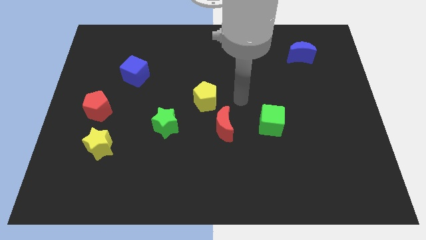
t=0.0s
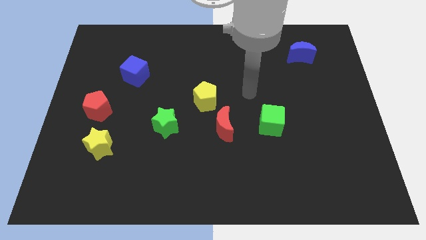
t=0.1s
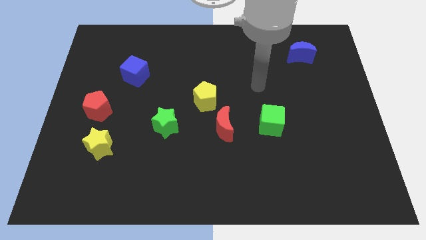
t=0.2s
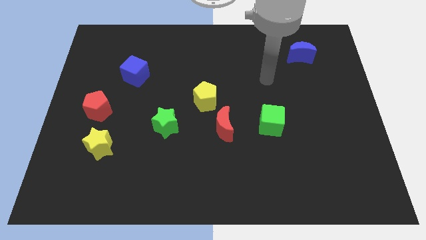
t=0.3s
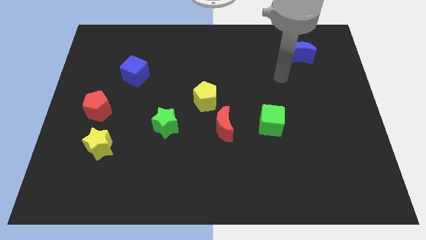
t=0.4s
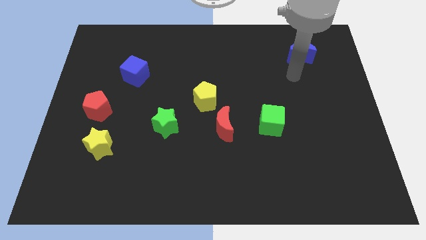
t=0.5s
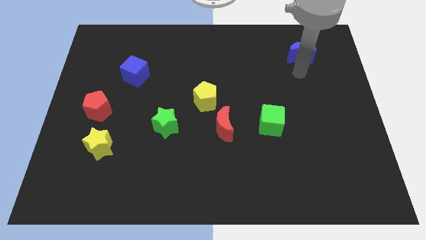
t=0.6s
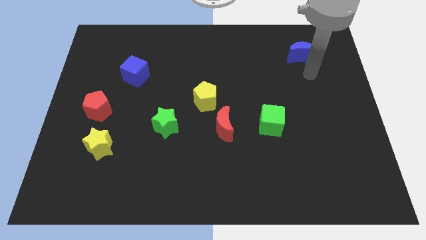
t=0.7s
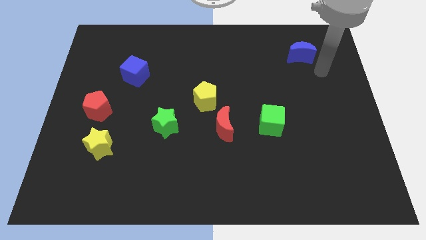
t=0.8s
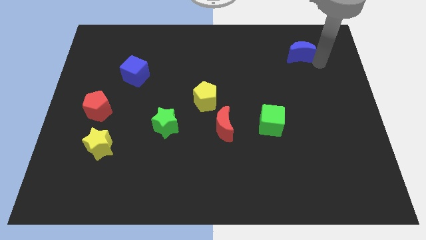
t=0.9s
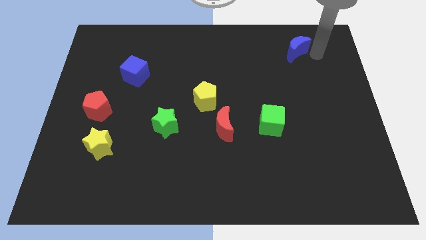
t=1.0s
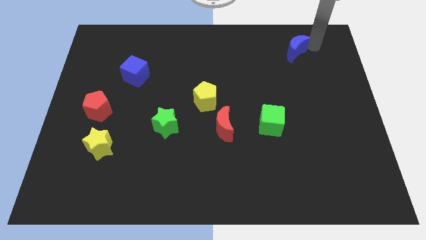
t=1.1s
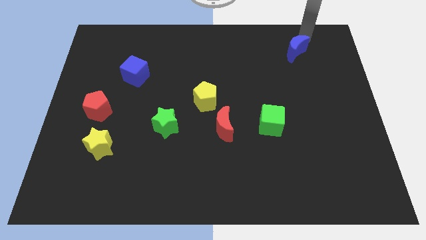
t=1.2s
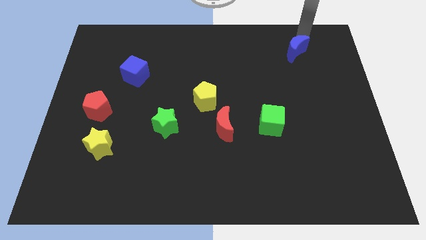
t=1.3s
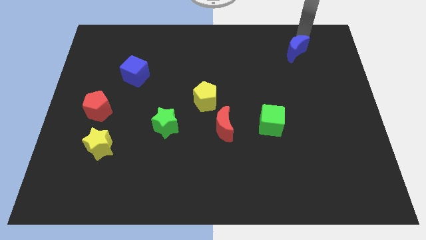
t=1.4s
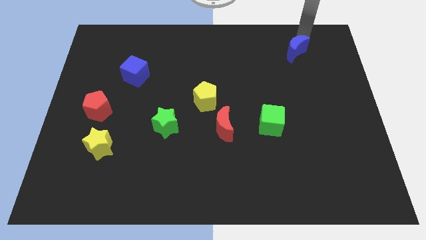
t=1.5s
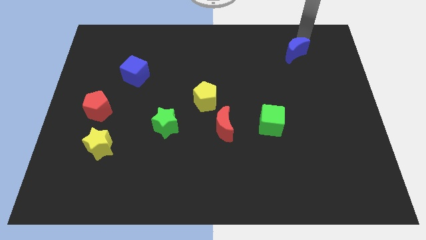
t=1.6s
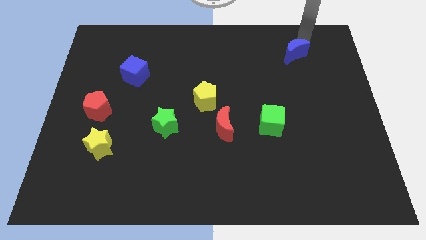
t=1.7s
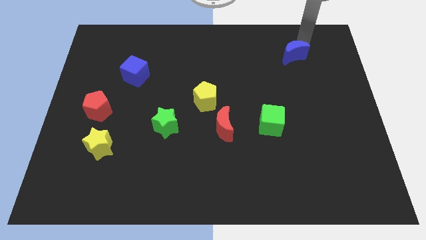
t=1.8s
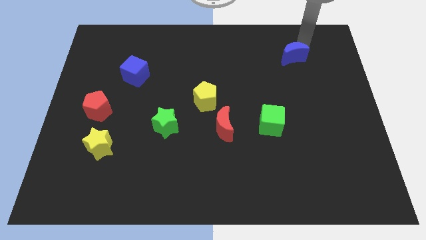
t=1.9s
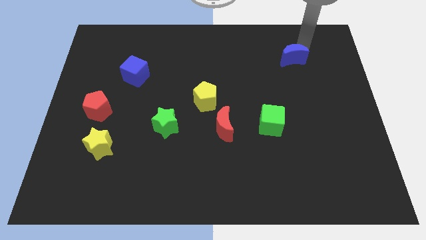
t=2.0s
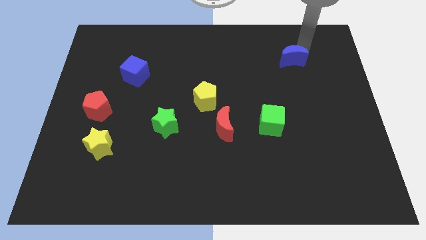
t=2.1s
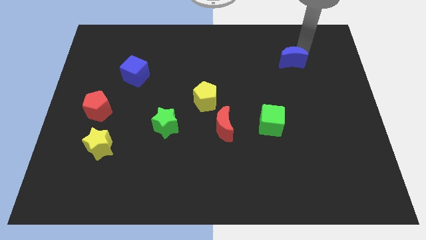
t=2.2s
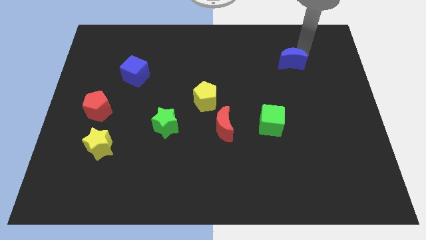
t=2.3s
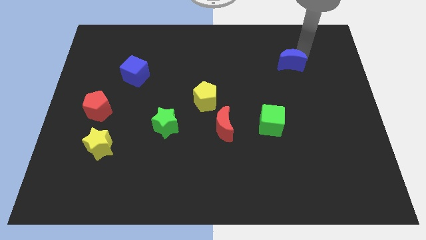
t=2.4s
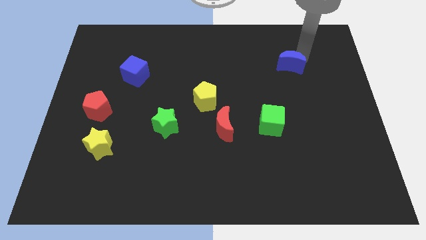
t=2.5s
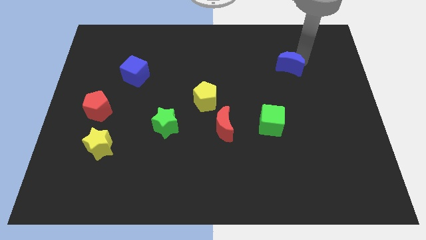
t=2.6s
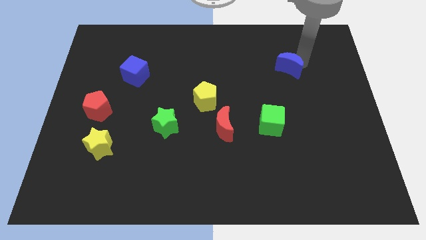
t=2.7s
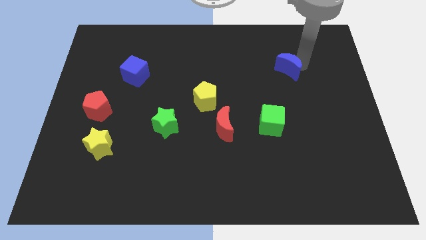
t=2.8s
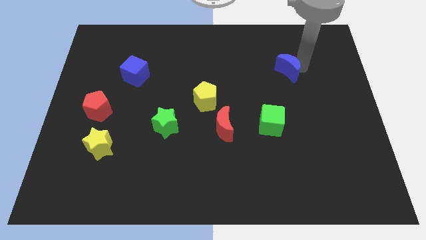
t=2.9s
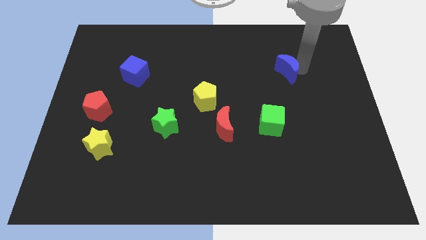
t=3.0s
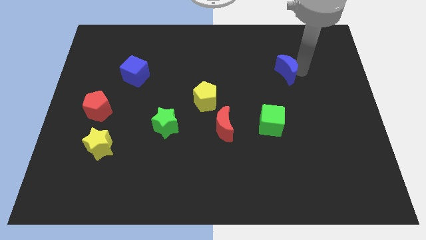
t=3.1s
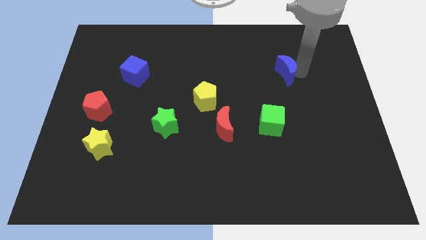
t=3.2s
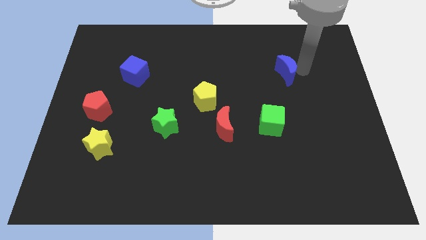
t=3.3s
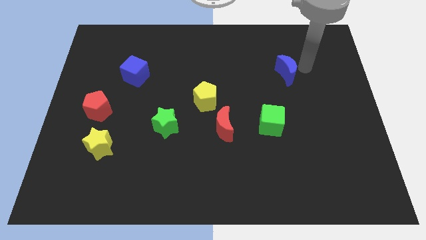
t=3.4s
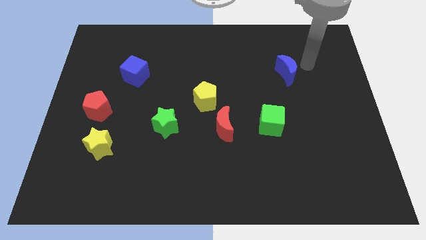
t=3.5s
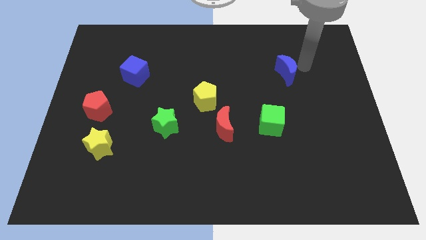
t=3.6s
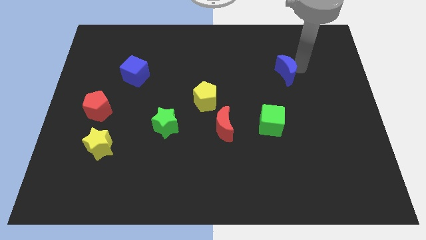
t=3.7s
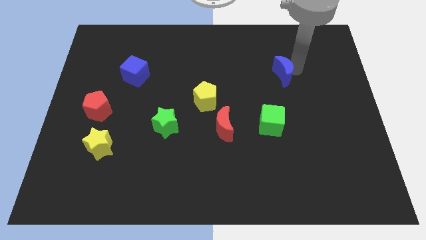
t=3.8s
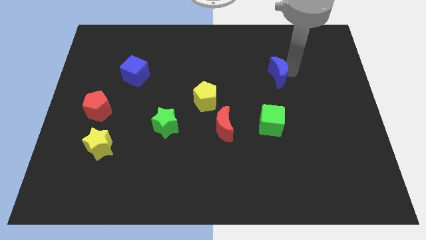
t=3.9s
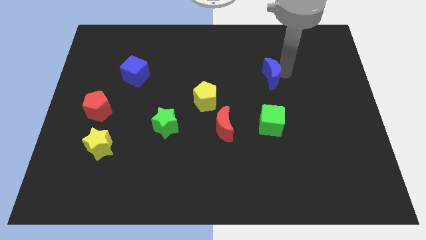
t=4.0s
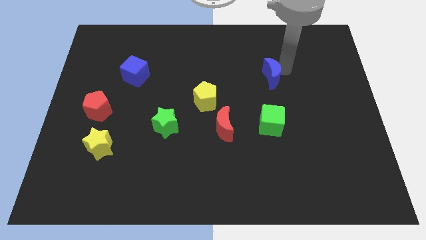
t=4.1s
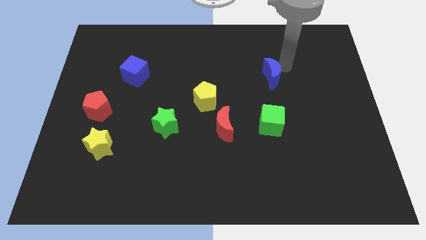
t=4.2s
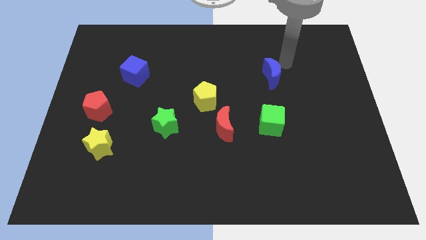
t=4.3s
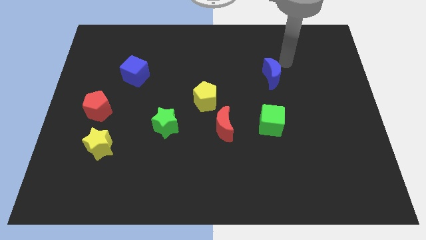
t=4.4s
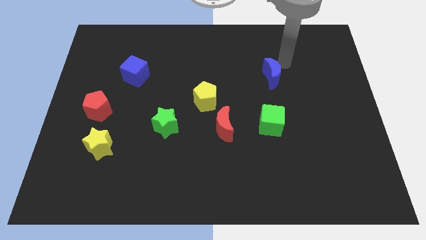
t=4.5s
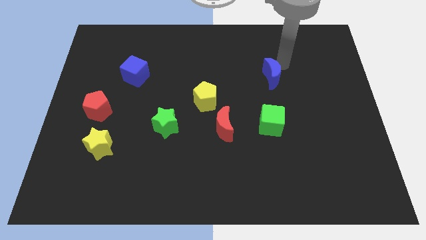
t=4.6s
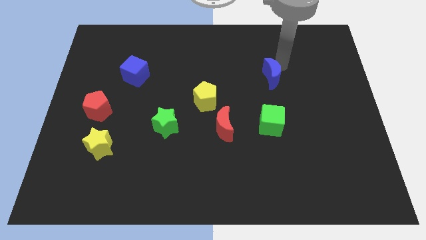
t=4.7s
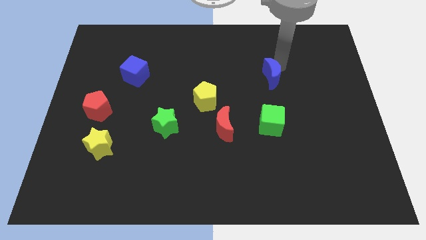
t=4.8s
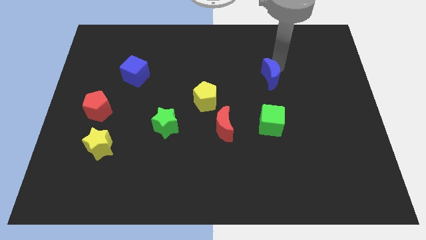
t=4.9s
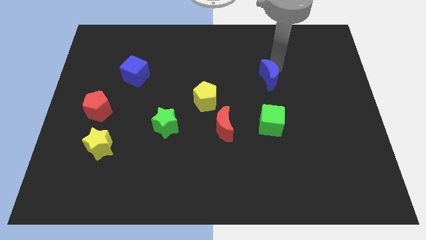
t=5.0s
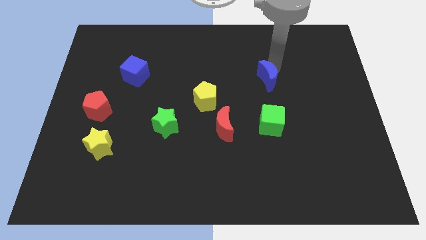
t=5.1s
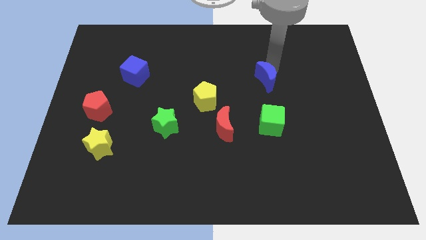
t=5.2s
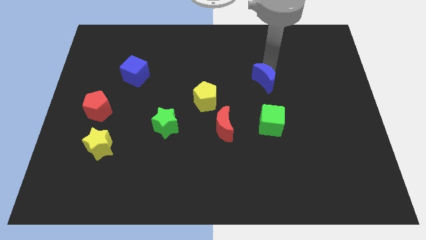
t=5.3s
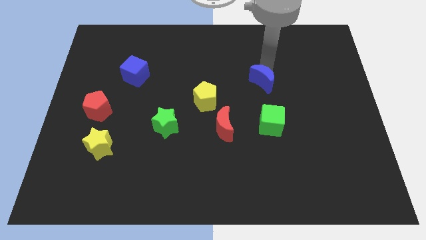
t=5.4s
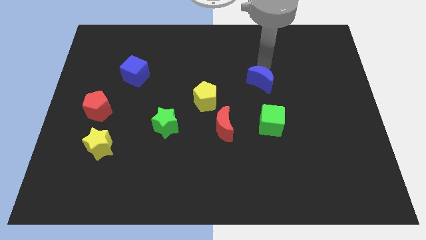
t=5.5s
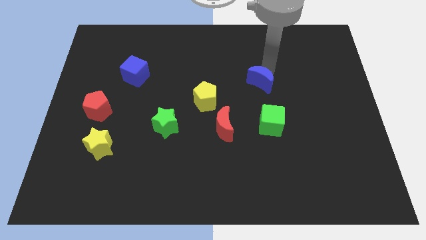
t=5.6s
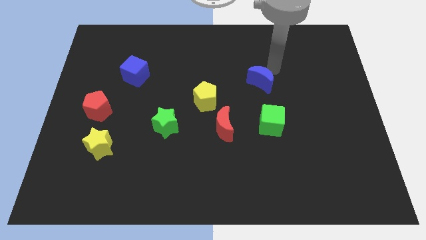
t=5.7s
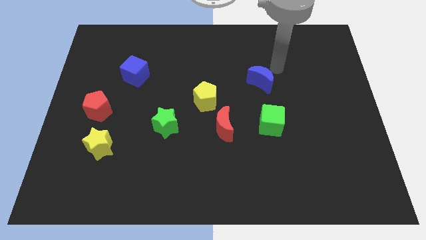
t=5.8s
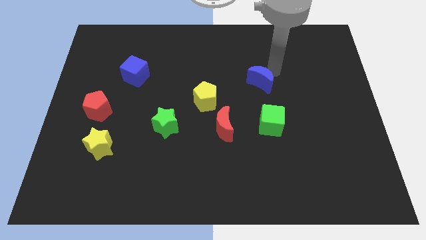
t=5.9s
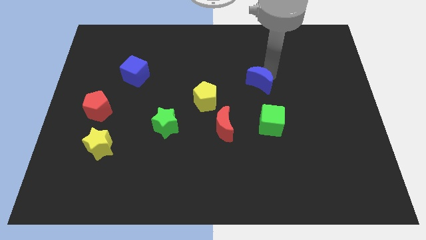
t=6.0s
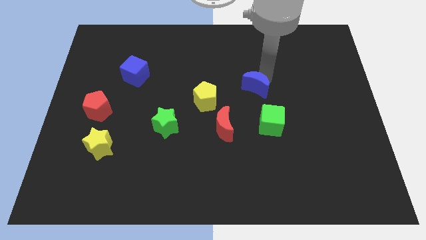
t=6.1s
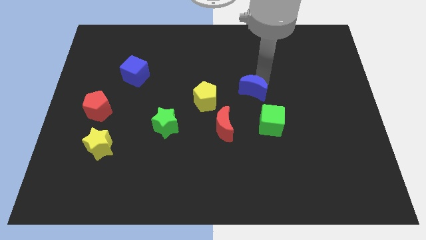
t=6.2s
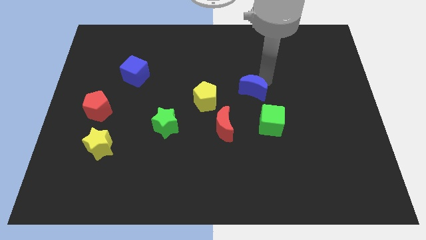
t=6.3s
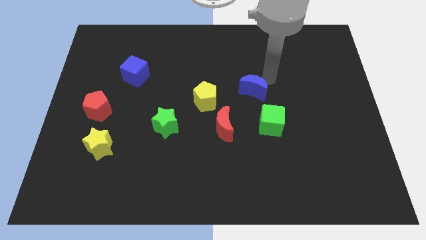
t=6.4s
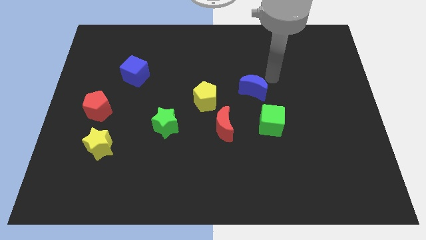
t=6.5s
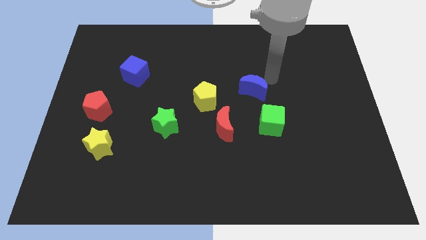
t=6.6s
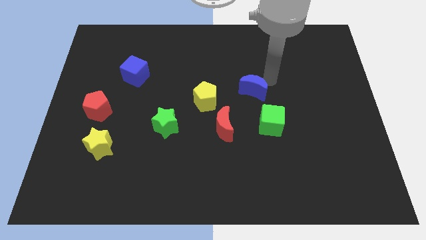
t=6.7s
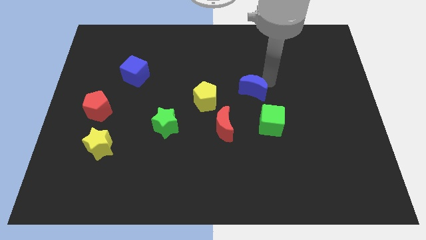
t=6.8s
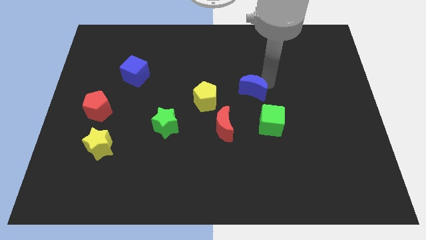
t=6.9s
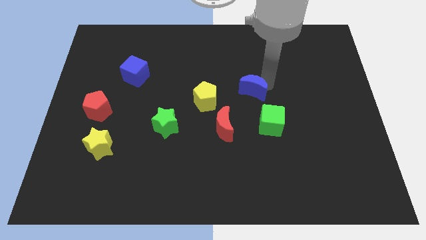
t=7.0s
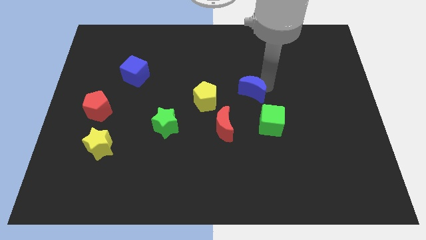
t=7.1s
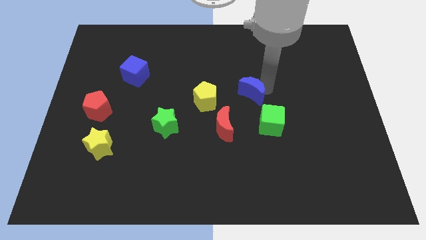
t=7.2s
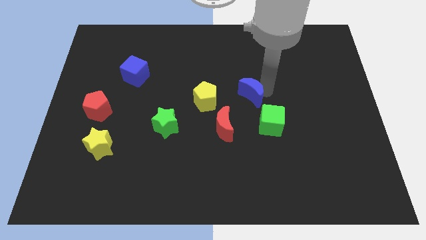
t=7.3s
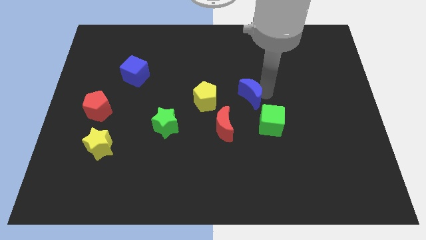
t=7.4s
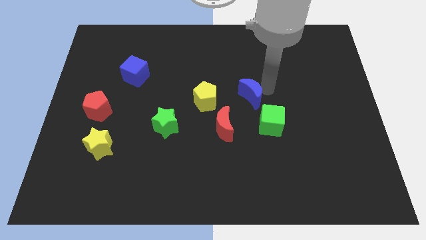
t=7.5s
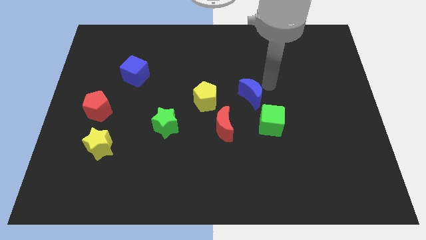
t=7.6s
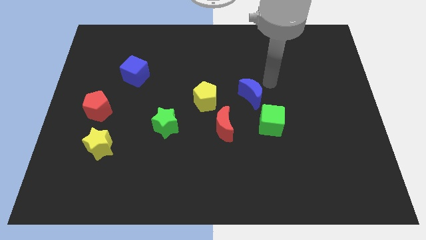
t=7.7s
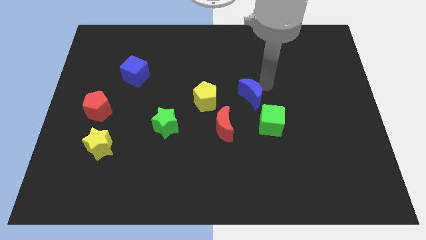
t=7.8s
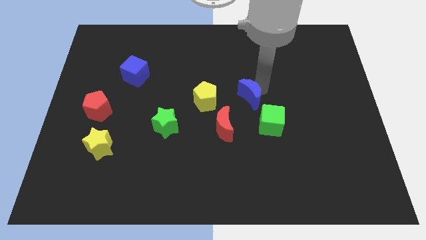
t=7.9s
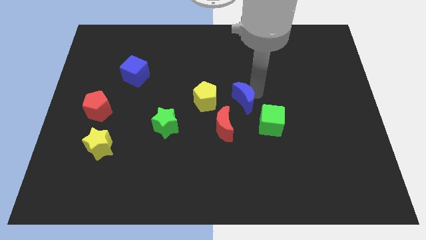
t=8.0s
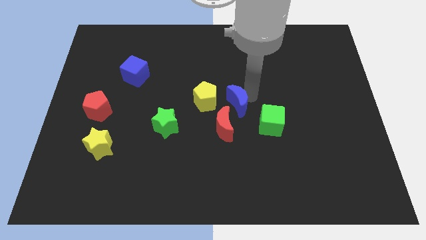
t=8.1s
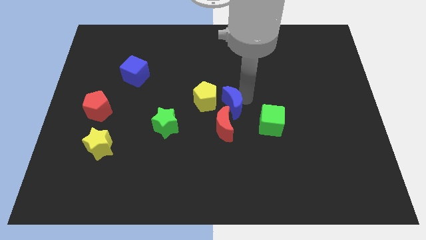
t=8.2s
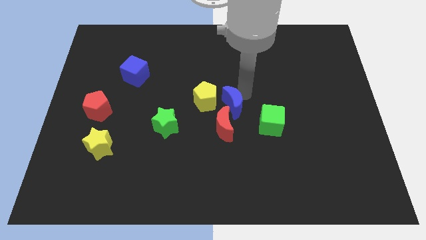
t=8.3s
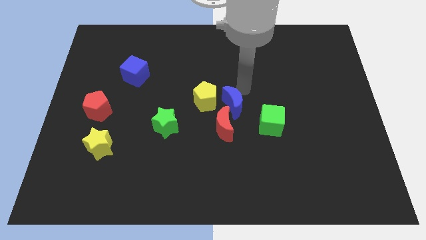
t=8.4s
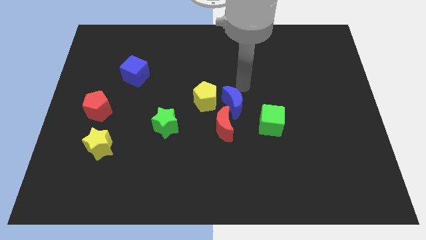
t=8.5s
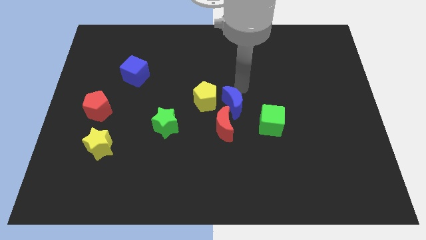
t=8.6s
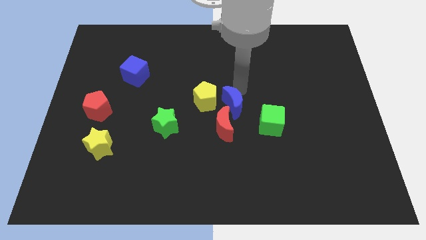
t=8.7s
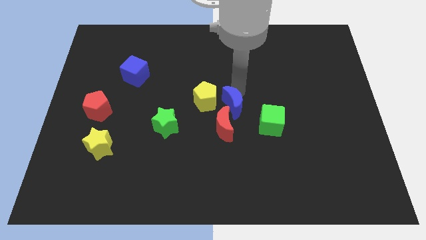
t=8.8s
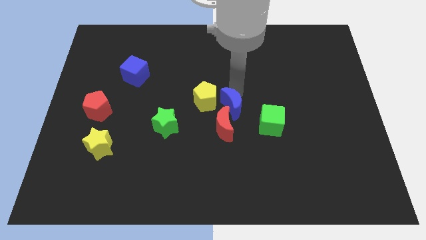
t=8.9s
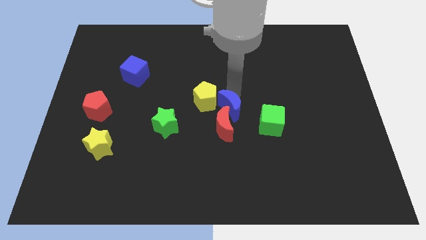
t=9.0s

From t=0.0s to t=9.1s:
slide the blue moon to the red moon
